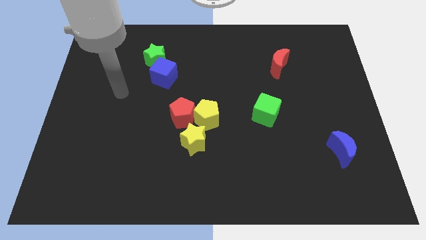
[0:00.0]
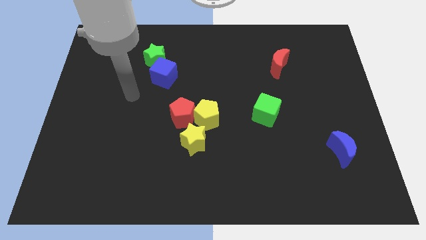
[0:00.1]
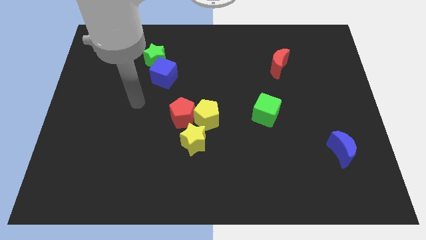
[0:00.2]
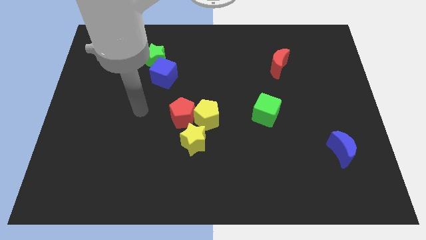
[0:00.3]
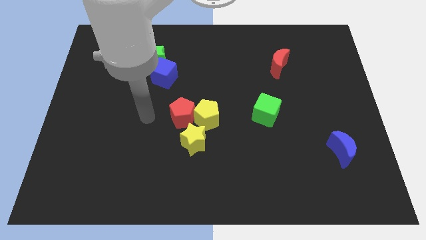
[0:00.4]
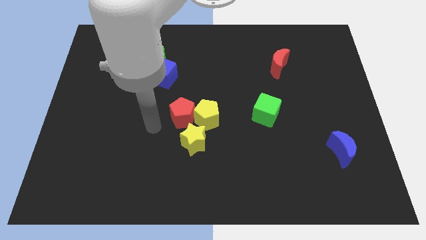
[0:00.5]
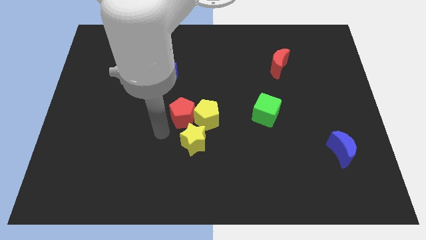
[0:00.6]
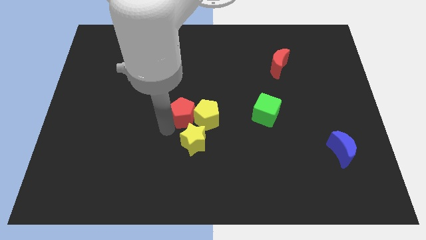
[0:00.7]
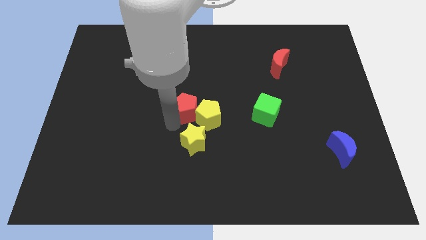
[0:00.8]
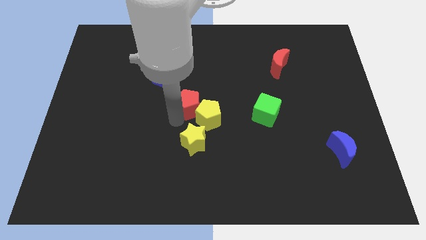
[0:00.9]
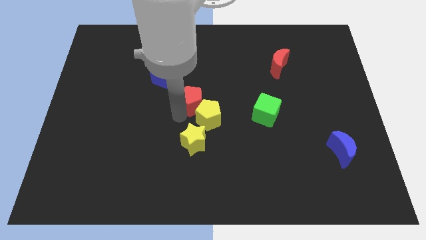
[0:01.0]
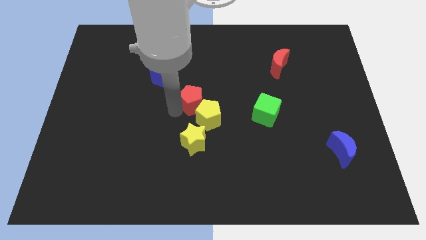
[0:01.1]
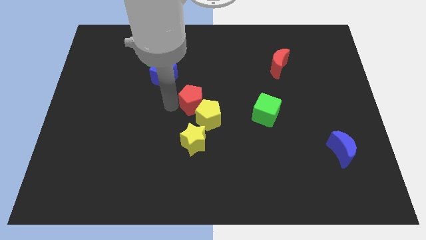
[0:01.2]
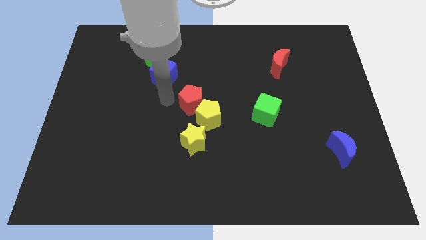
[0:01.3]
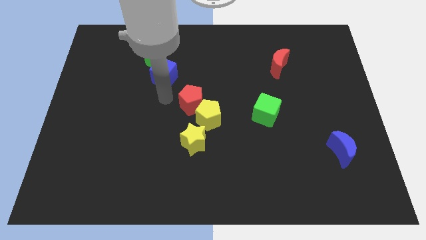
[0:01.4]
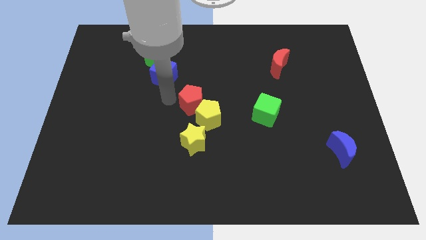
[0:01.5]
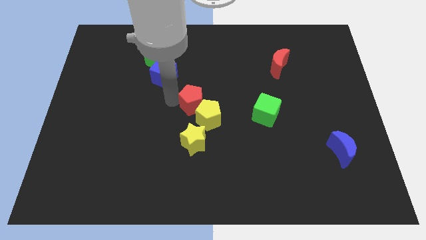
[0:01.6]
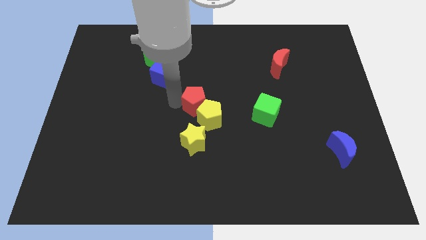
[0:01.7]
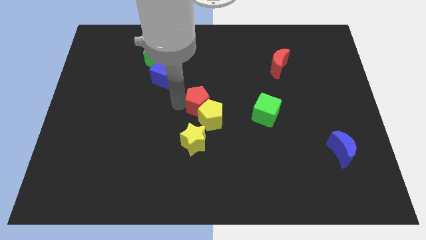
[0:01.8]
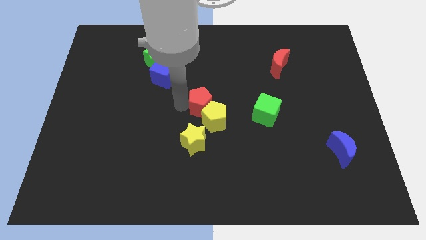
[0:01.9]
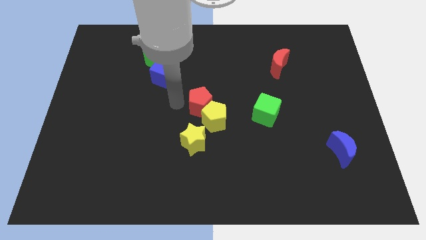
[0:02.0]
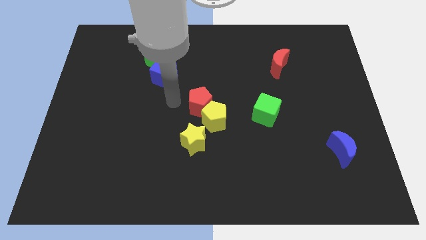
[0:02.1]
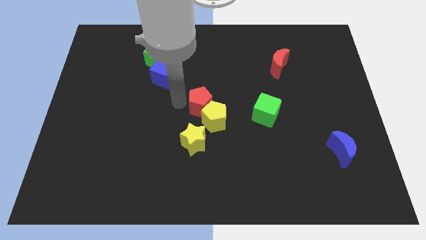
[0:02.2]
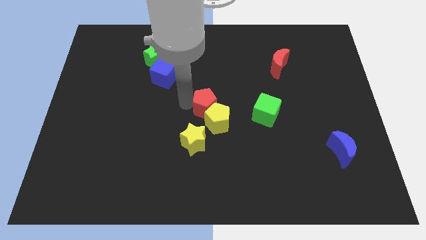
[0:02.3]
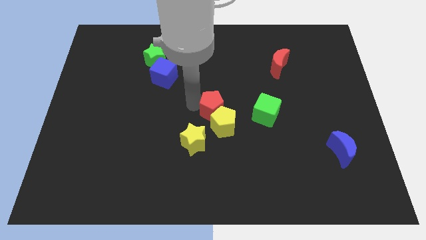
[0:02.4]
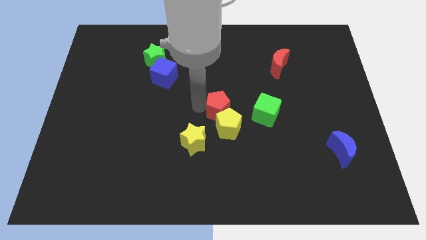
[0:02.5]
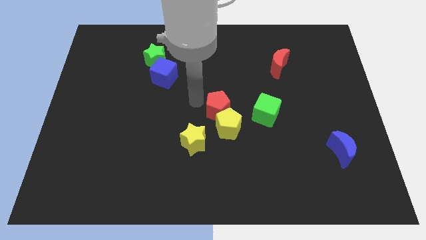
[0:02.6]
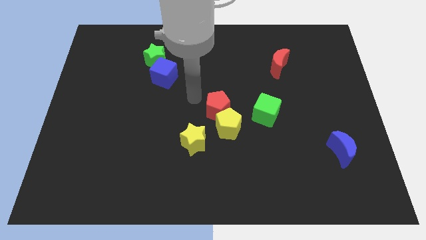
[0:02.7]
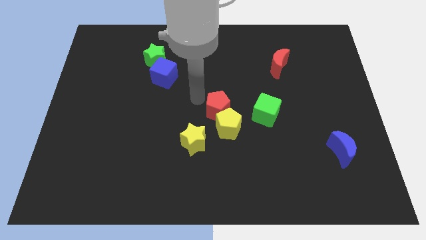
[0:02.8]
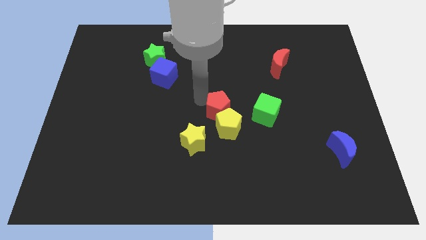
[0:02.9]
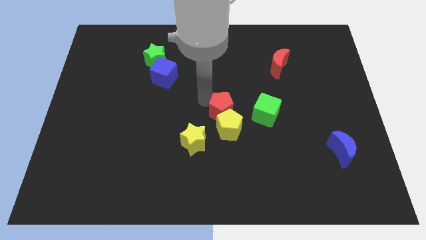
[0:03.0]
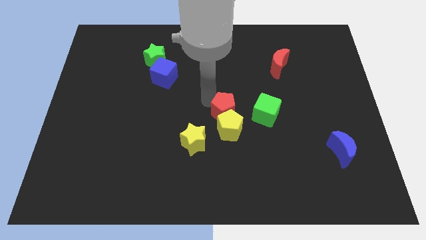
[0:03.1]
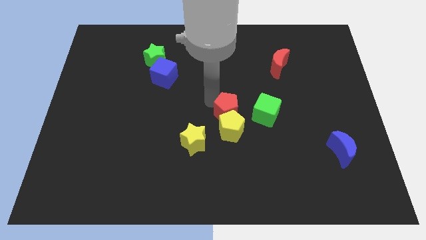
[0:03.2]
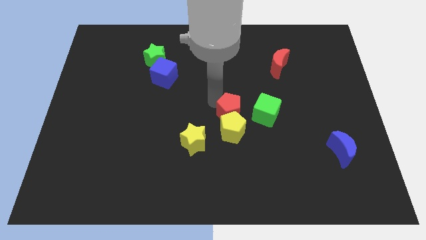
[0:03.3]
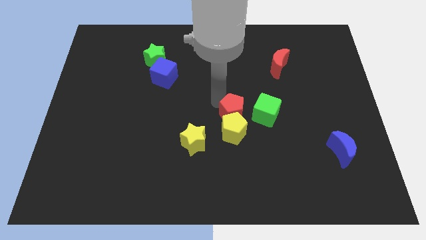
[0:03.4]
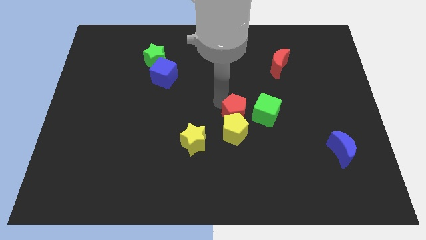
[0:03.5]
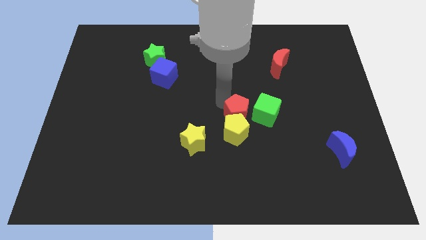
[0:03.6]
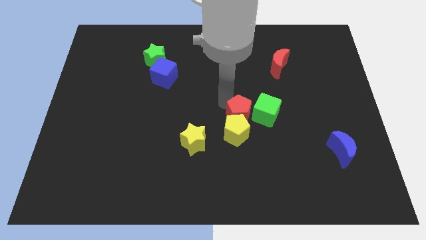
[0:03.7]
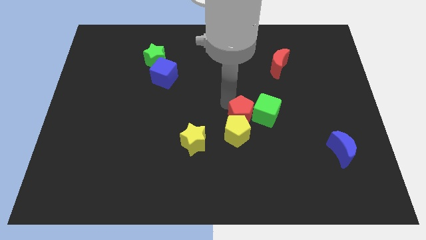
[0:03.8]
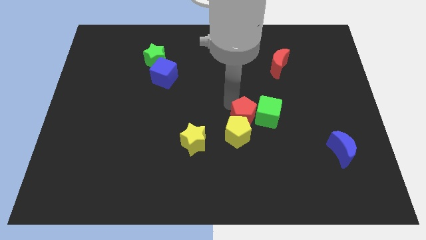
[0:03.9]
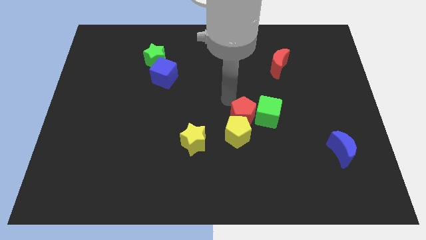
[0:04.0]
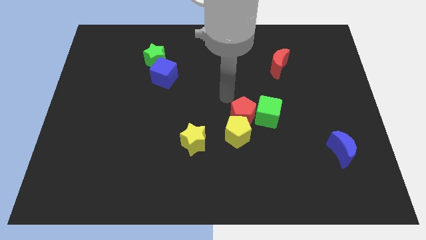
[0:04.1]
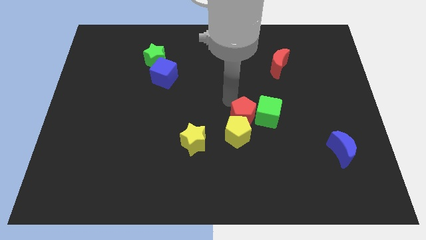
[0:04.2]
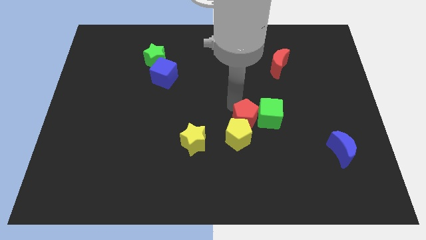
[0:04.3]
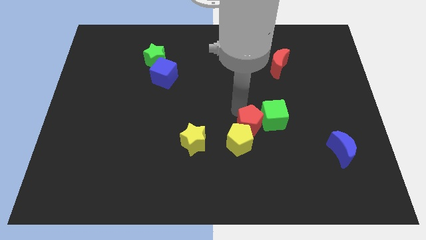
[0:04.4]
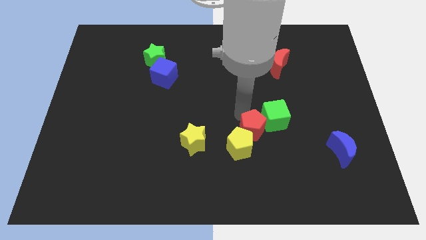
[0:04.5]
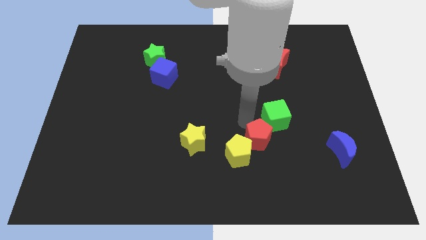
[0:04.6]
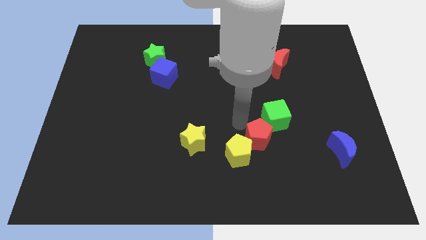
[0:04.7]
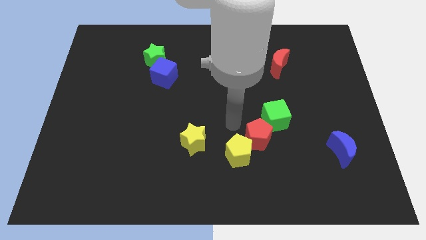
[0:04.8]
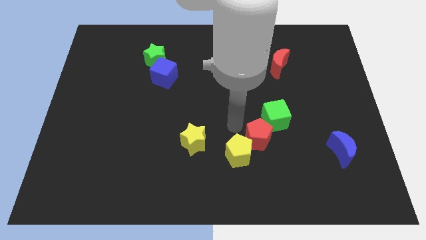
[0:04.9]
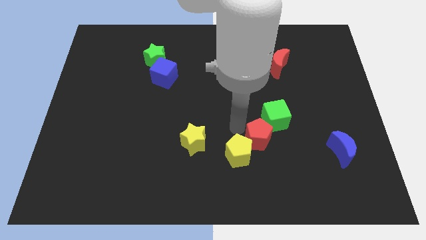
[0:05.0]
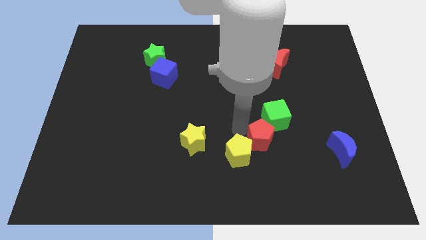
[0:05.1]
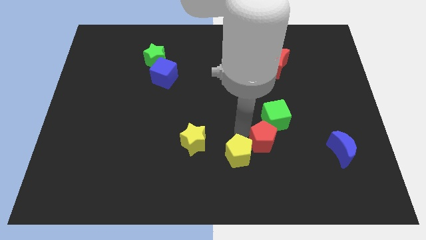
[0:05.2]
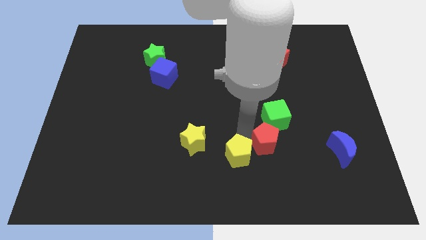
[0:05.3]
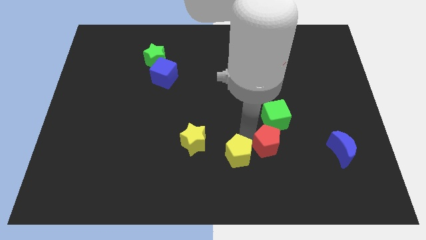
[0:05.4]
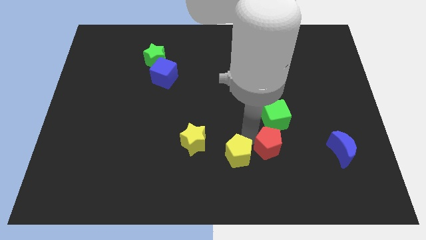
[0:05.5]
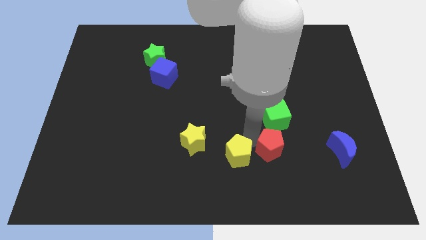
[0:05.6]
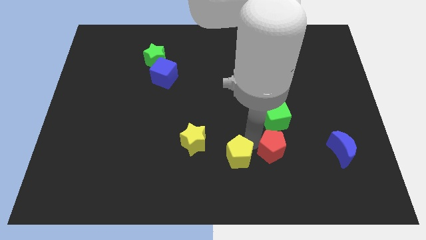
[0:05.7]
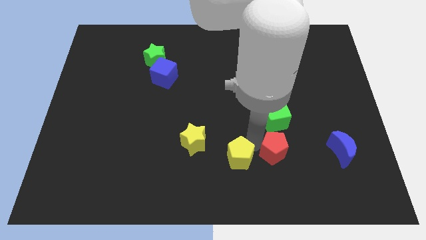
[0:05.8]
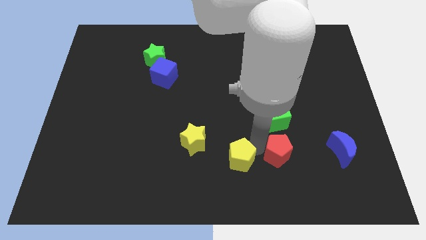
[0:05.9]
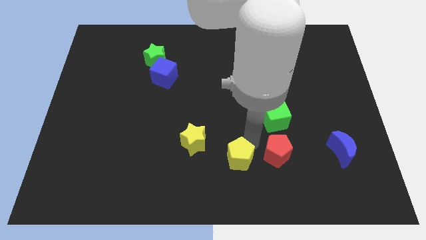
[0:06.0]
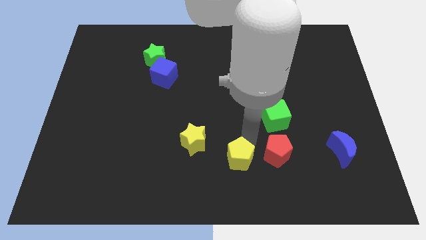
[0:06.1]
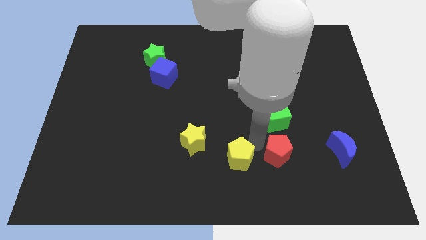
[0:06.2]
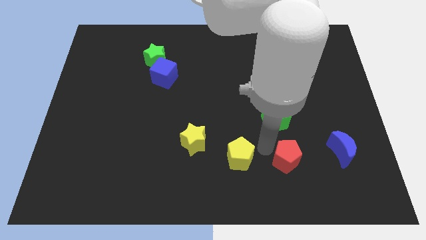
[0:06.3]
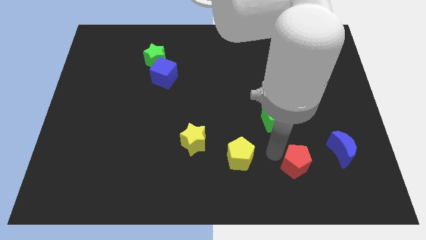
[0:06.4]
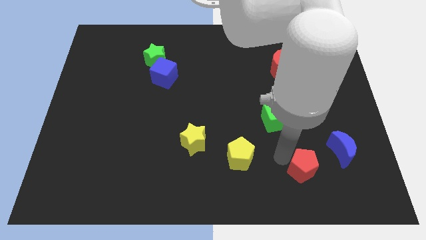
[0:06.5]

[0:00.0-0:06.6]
push the red pentagon diagonally down and to the left of the blue moon

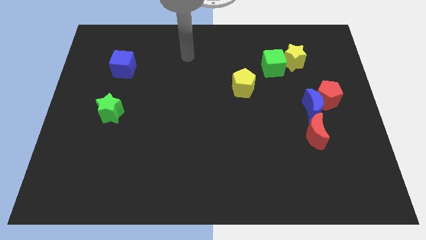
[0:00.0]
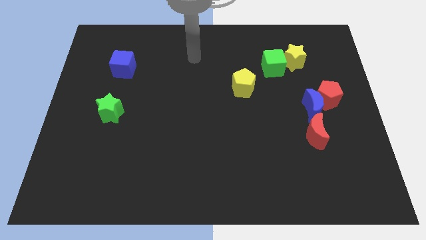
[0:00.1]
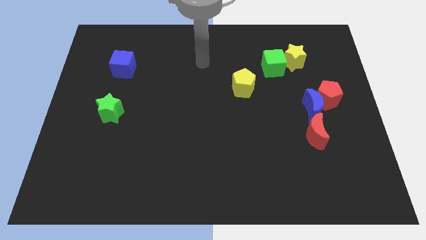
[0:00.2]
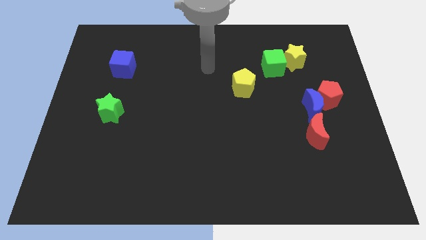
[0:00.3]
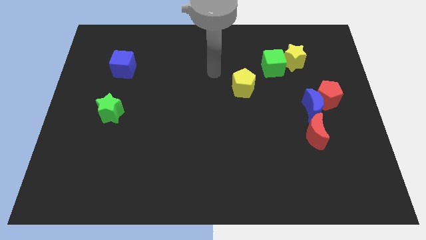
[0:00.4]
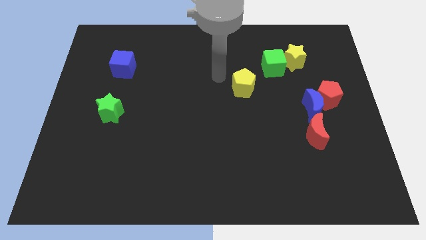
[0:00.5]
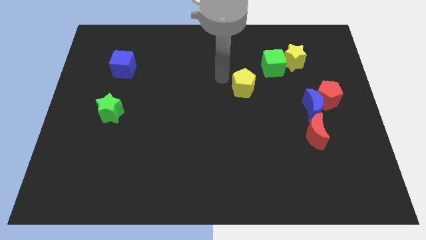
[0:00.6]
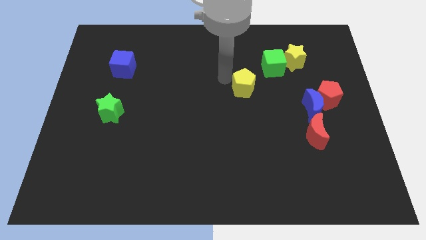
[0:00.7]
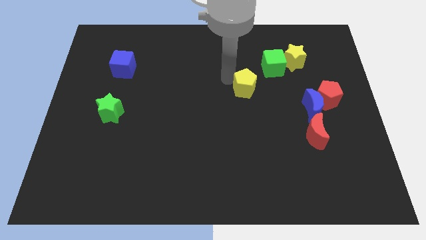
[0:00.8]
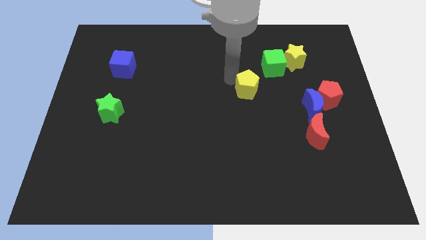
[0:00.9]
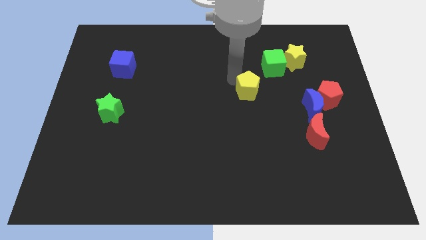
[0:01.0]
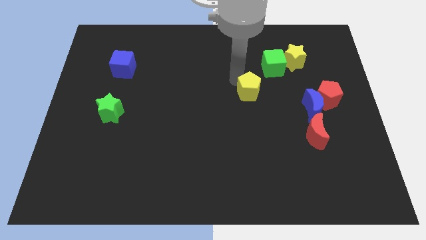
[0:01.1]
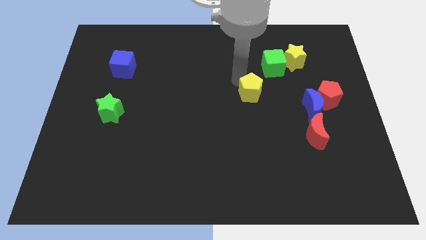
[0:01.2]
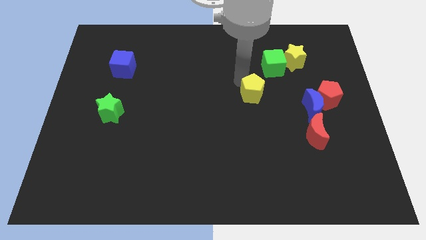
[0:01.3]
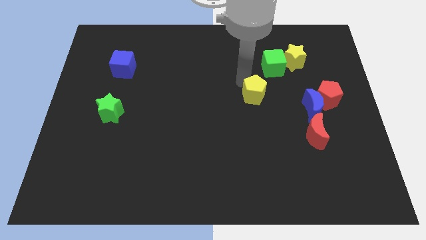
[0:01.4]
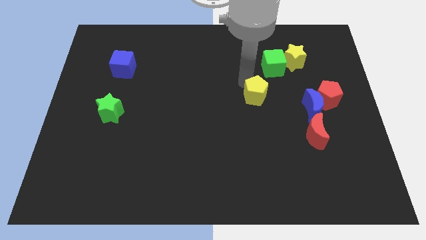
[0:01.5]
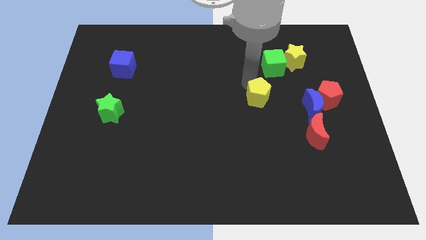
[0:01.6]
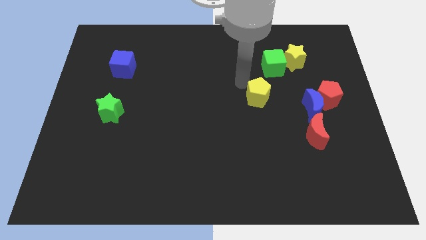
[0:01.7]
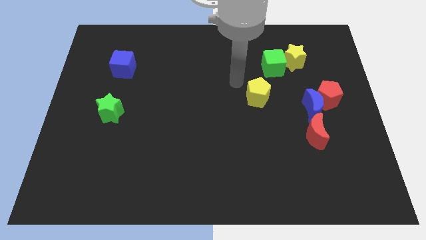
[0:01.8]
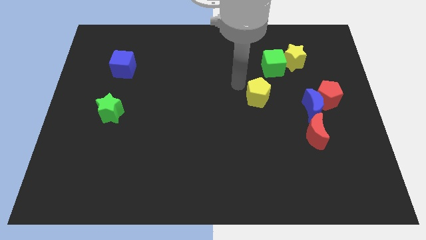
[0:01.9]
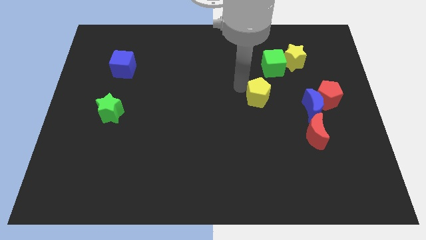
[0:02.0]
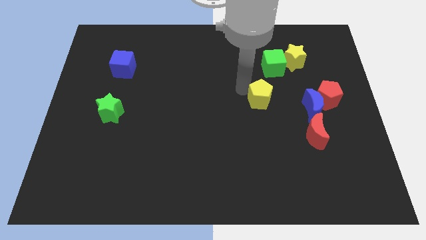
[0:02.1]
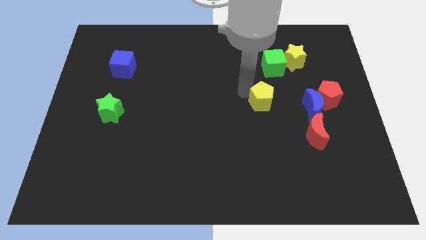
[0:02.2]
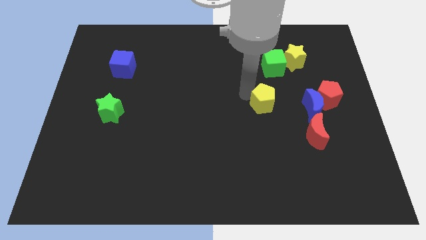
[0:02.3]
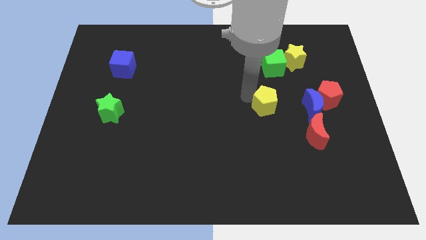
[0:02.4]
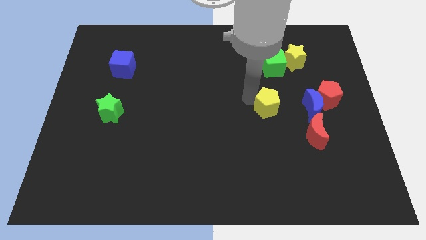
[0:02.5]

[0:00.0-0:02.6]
push the yellow pentagon to the top left side of the red moon
